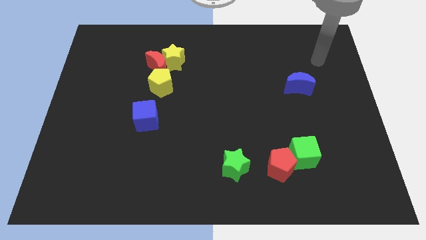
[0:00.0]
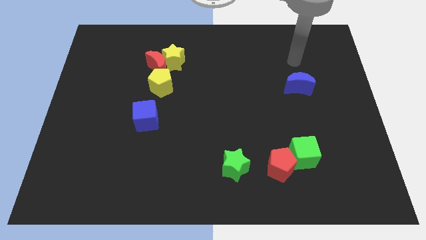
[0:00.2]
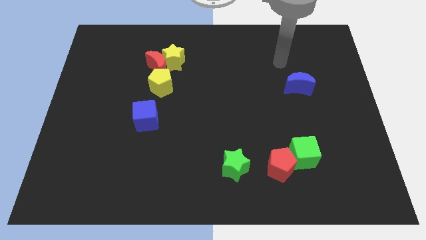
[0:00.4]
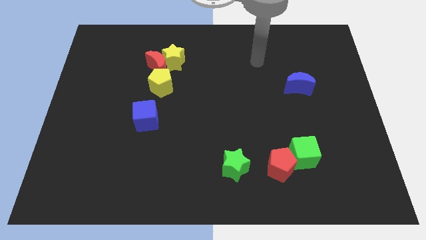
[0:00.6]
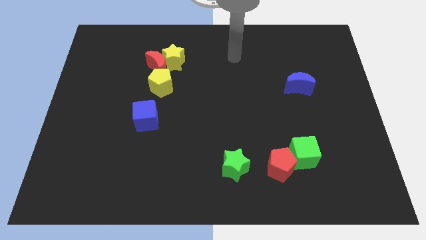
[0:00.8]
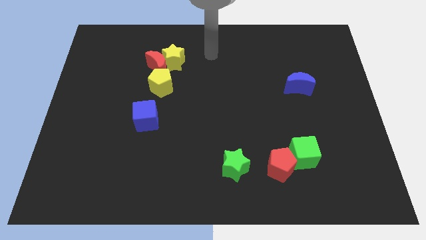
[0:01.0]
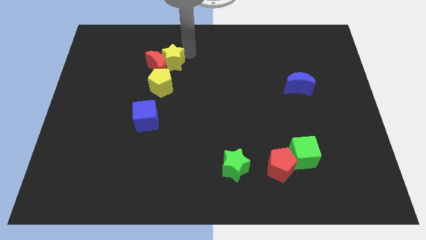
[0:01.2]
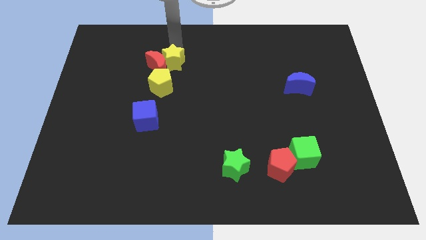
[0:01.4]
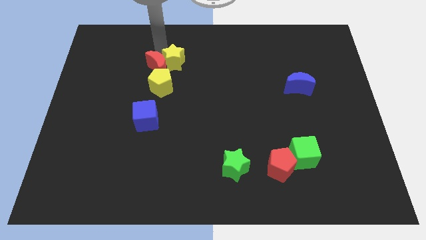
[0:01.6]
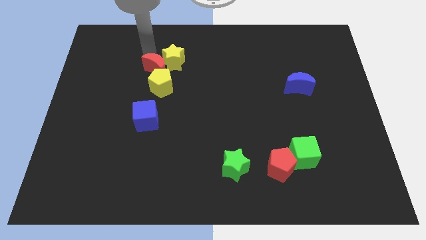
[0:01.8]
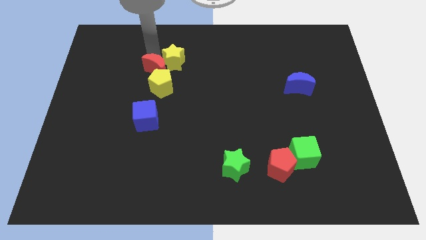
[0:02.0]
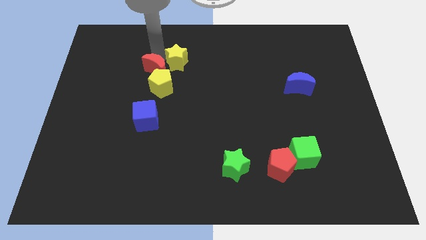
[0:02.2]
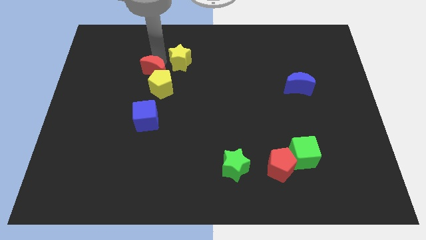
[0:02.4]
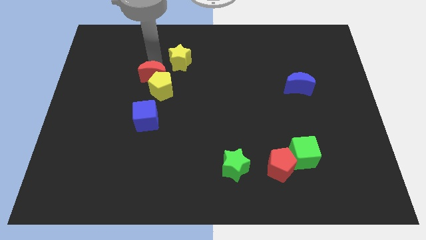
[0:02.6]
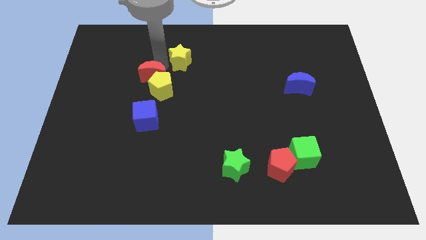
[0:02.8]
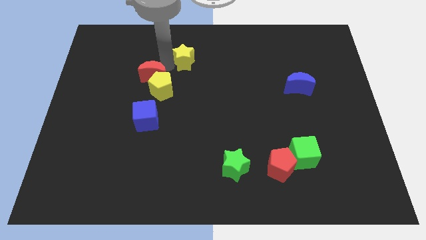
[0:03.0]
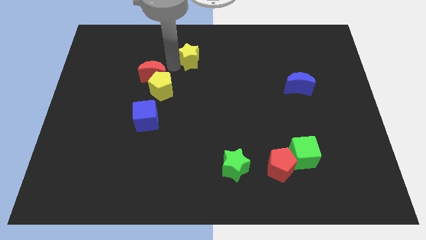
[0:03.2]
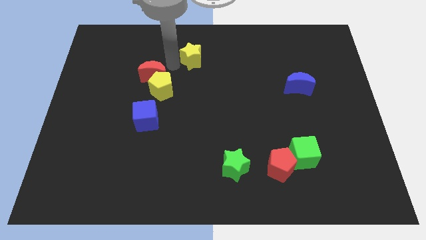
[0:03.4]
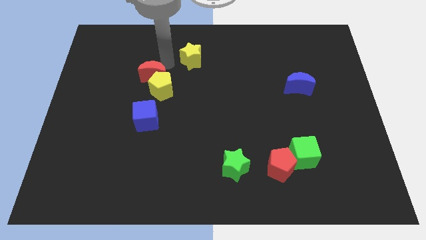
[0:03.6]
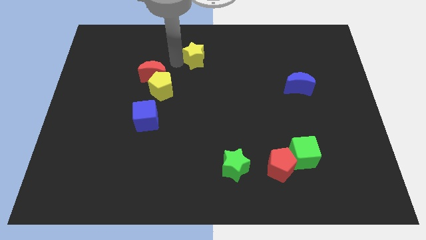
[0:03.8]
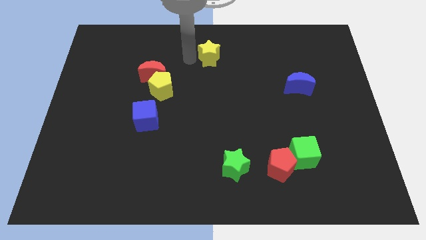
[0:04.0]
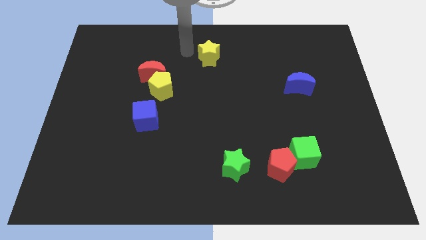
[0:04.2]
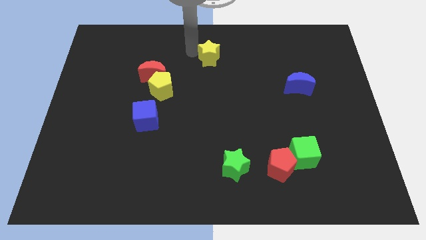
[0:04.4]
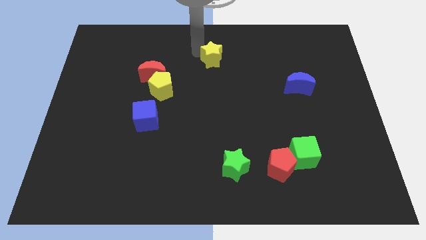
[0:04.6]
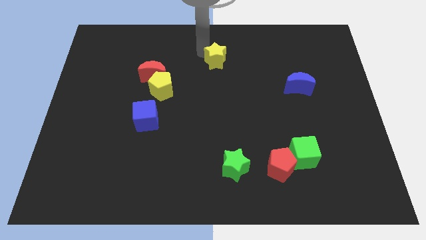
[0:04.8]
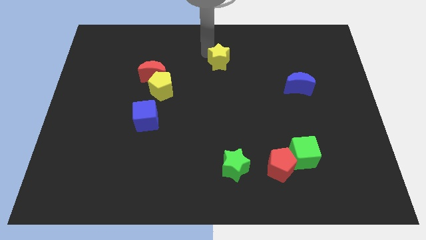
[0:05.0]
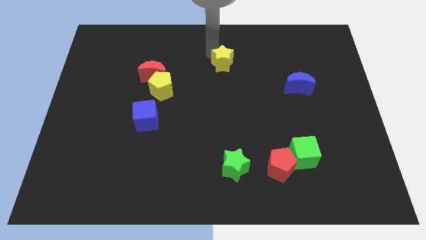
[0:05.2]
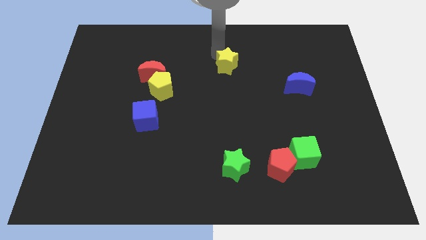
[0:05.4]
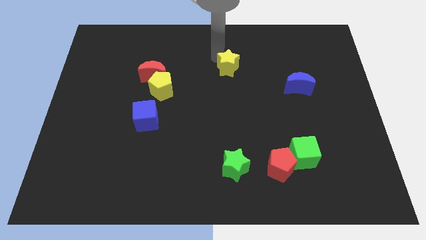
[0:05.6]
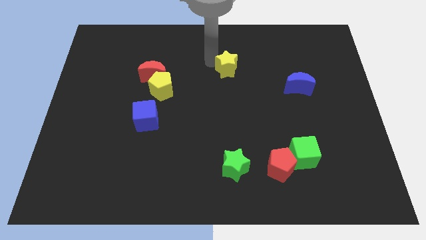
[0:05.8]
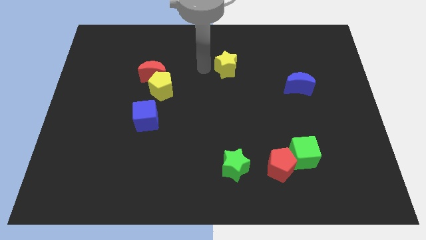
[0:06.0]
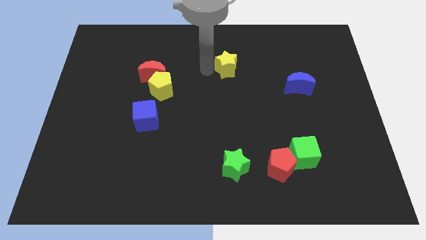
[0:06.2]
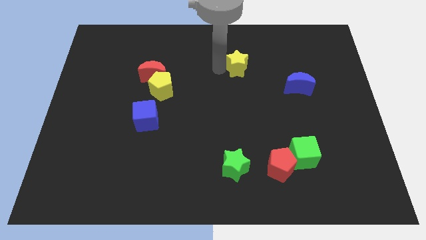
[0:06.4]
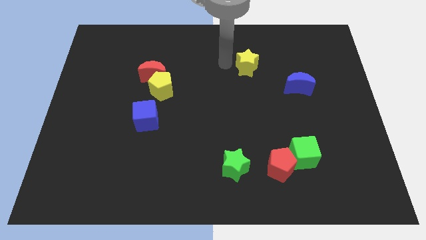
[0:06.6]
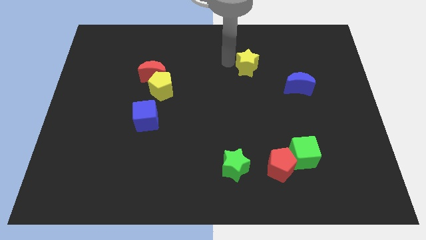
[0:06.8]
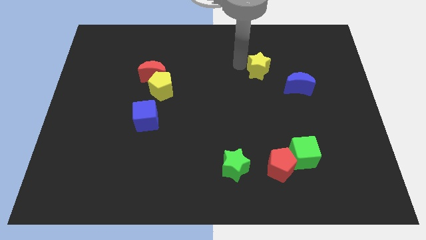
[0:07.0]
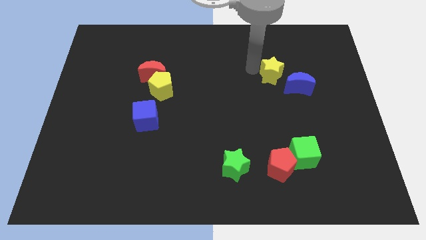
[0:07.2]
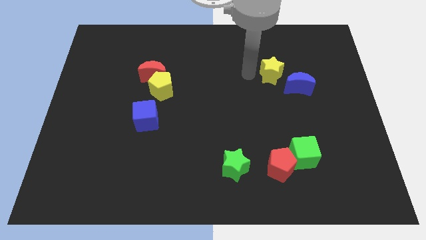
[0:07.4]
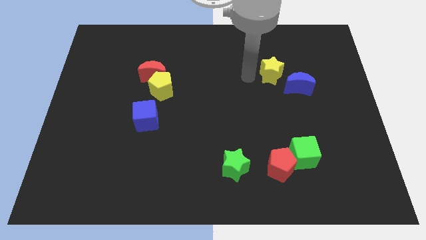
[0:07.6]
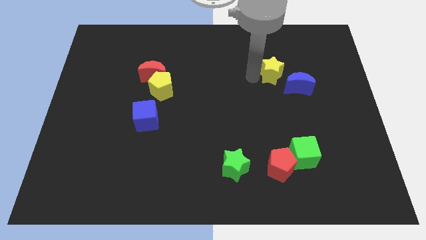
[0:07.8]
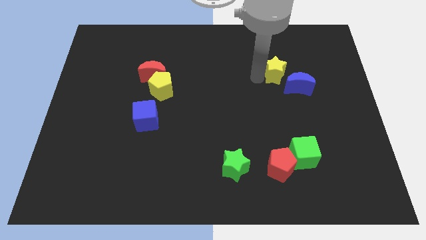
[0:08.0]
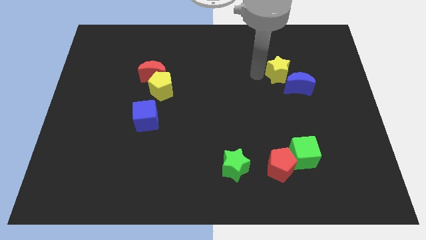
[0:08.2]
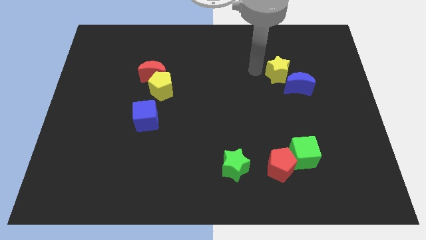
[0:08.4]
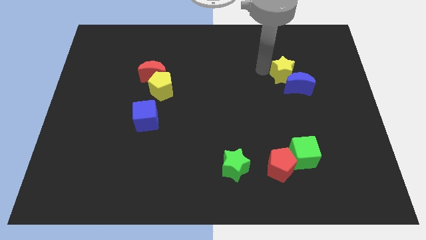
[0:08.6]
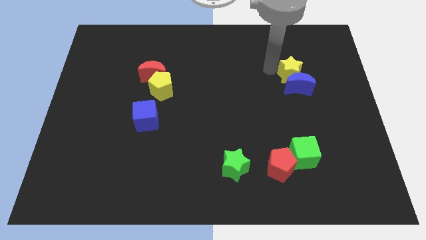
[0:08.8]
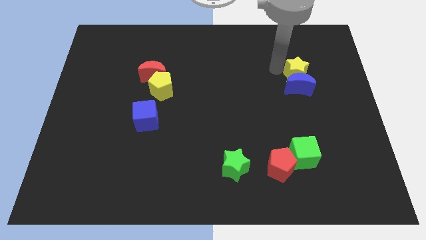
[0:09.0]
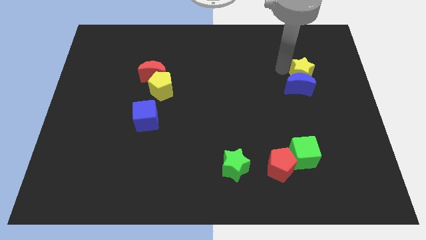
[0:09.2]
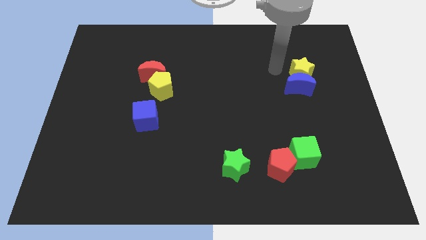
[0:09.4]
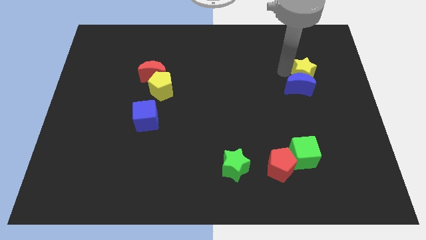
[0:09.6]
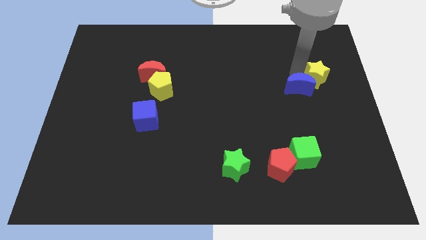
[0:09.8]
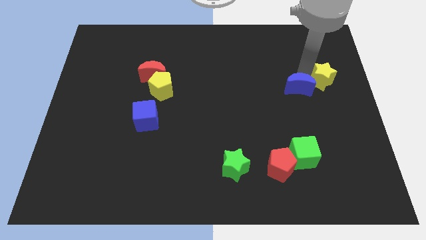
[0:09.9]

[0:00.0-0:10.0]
move the yellow star to the center right

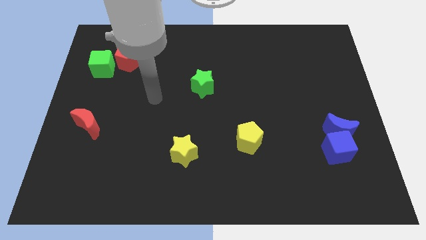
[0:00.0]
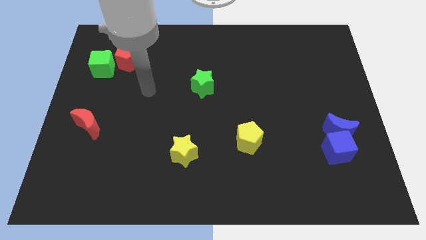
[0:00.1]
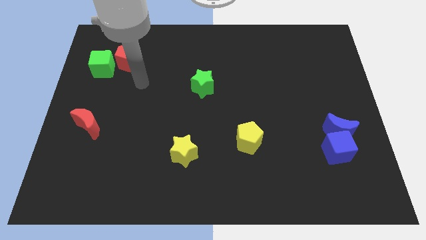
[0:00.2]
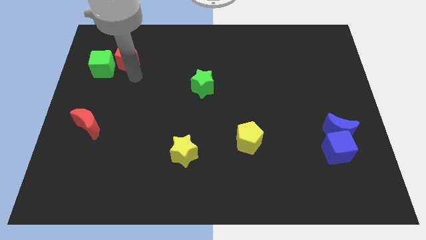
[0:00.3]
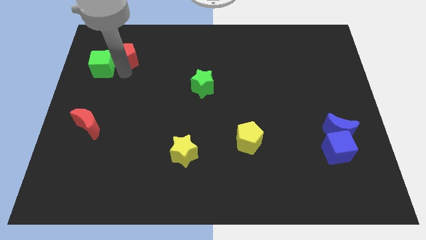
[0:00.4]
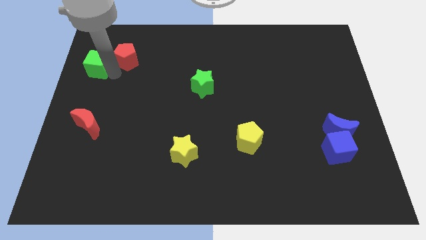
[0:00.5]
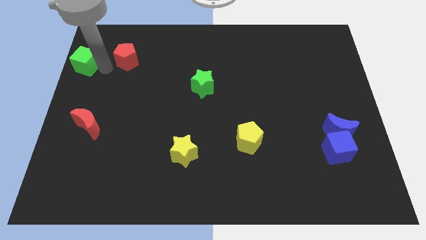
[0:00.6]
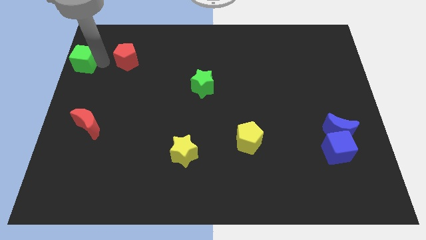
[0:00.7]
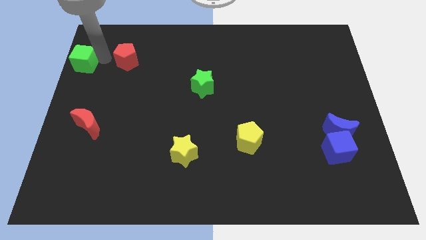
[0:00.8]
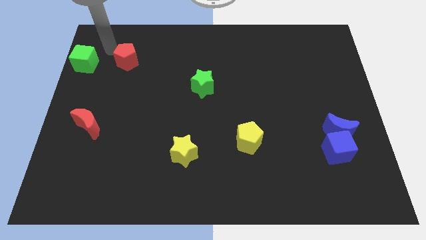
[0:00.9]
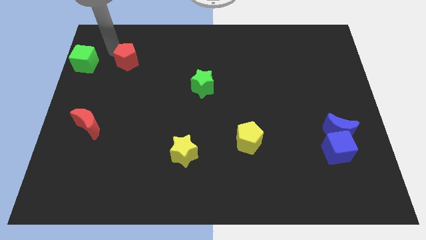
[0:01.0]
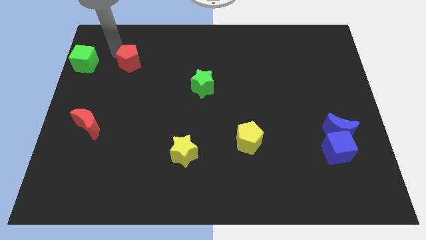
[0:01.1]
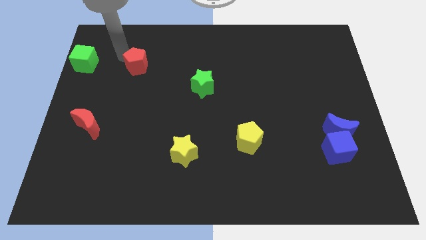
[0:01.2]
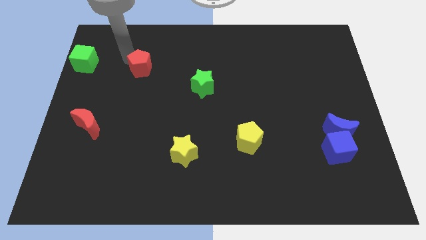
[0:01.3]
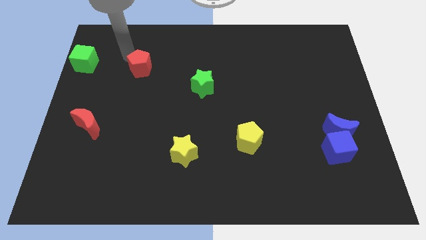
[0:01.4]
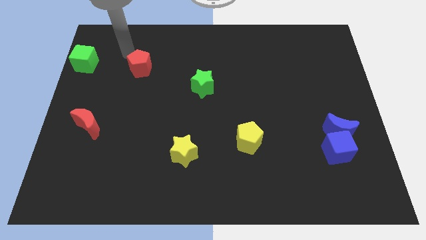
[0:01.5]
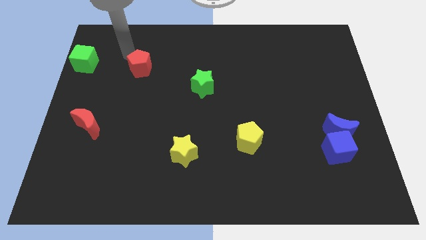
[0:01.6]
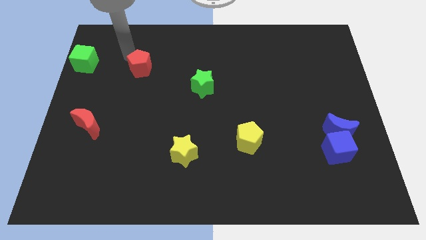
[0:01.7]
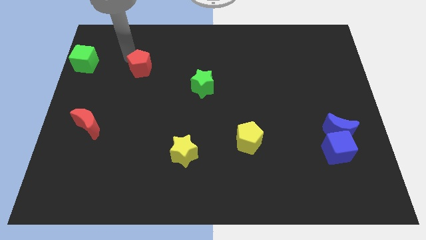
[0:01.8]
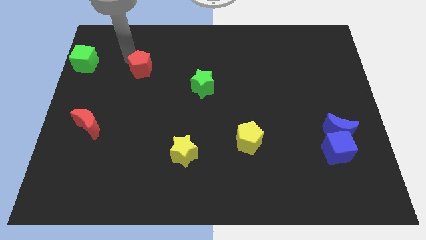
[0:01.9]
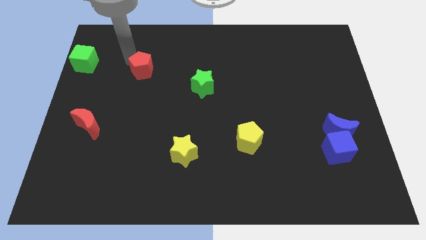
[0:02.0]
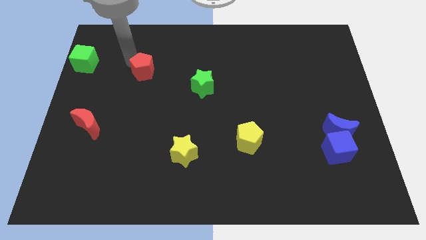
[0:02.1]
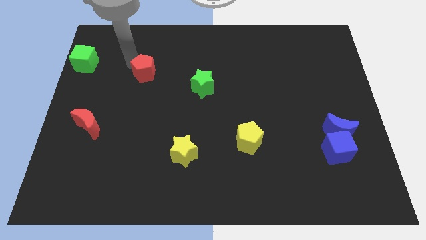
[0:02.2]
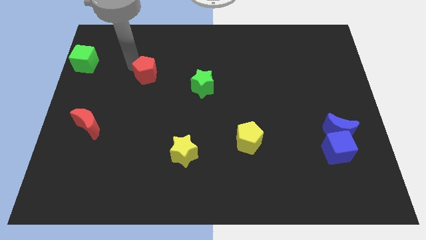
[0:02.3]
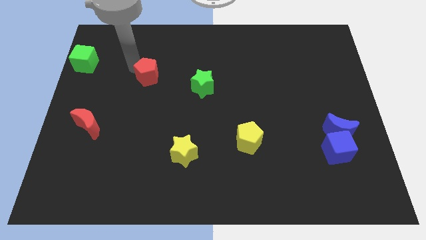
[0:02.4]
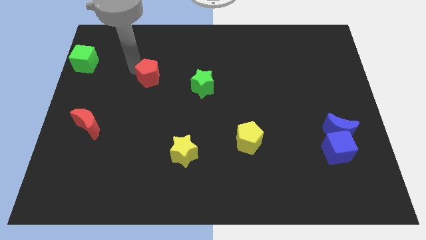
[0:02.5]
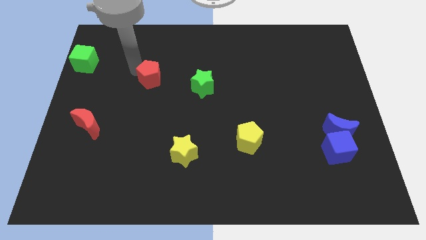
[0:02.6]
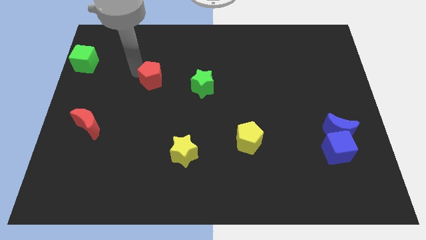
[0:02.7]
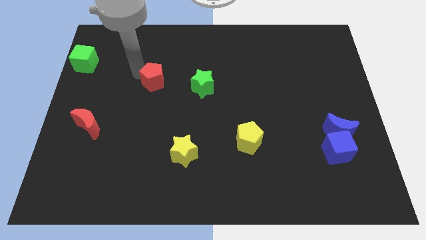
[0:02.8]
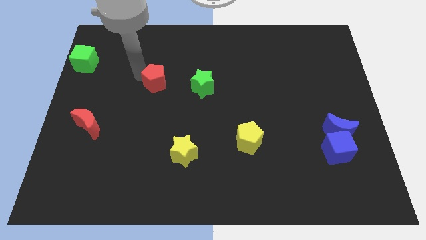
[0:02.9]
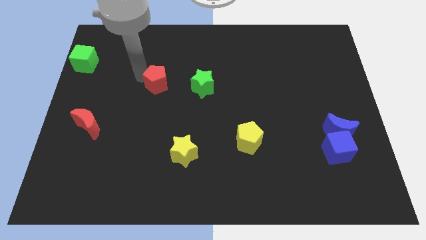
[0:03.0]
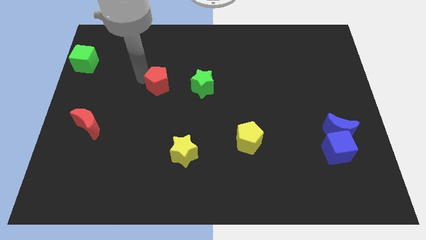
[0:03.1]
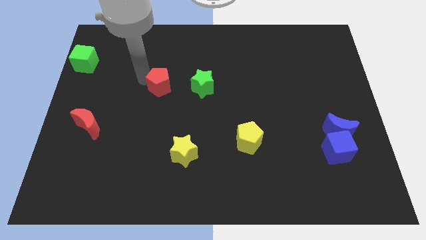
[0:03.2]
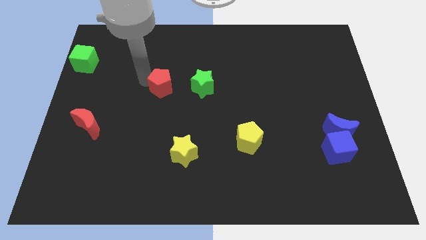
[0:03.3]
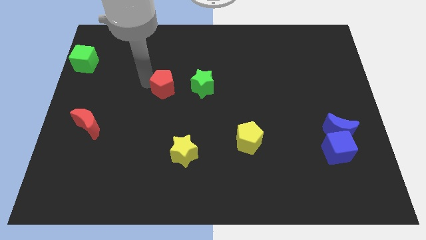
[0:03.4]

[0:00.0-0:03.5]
push the red pentagon to the middle
